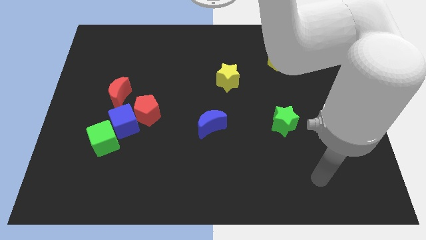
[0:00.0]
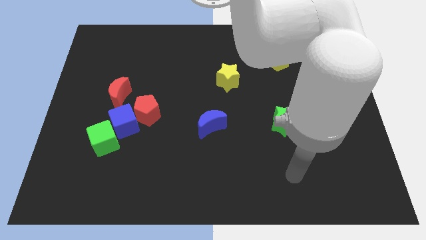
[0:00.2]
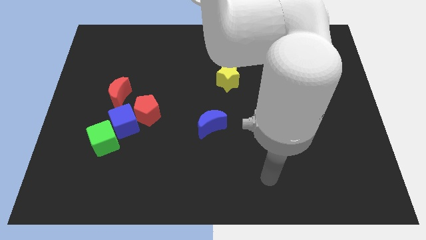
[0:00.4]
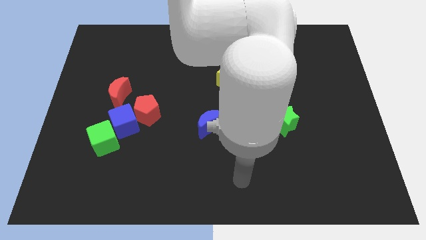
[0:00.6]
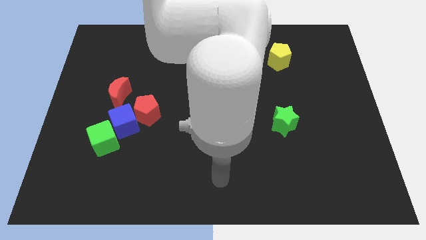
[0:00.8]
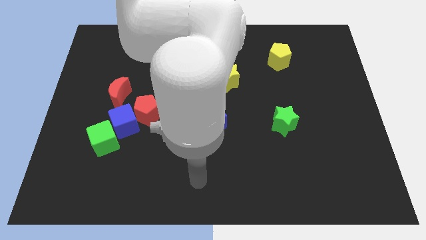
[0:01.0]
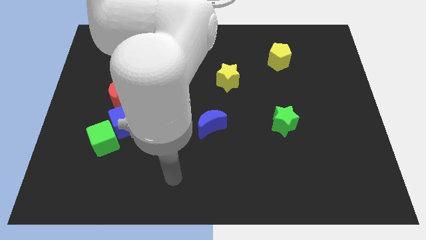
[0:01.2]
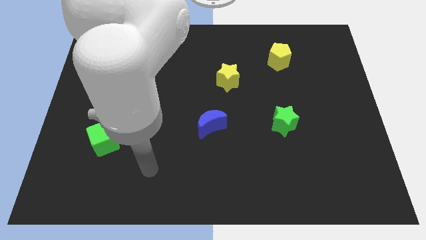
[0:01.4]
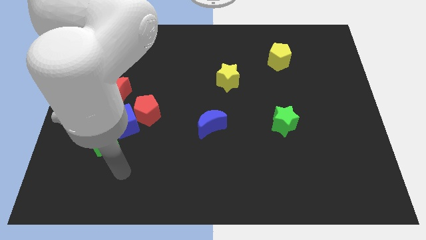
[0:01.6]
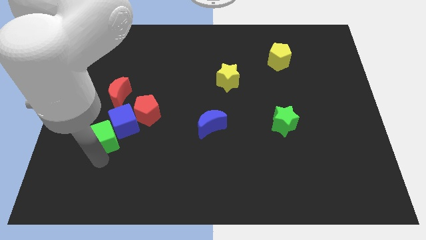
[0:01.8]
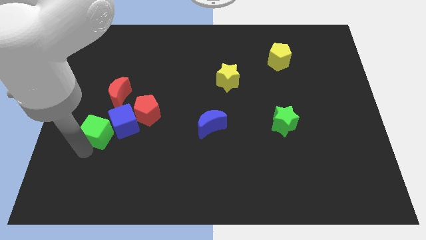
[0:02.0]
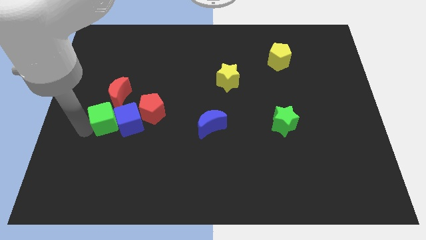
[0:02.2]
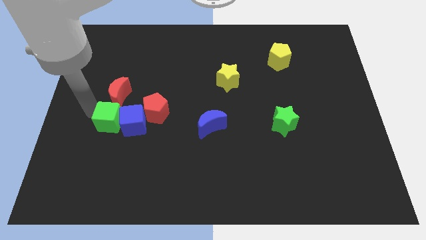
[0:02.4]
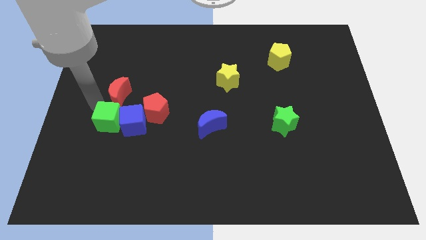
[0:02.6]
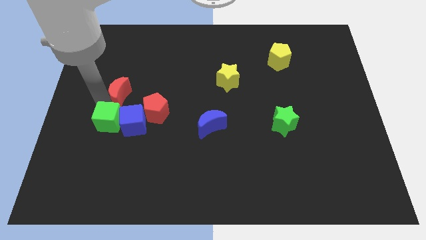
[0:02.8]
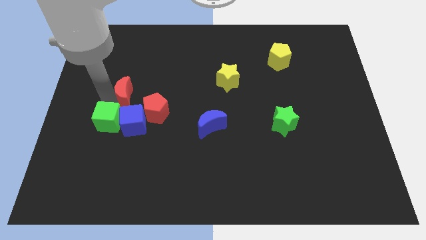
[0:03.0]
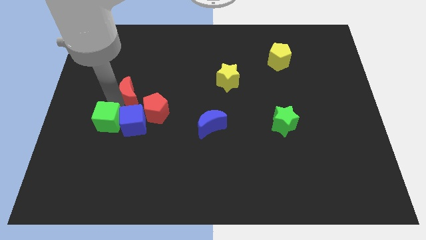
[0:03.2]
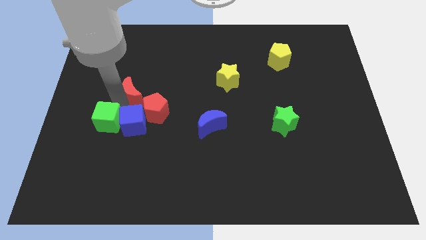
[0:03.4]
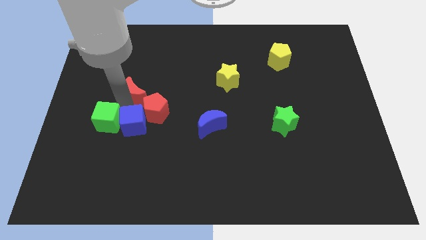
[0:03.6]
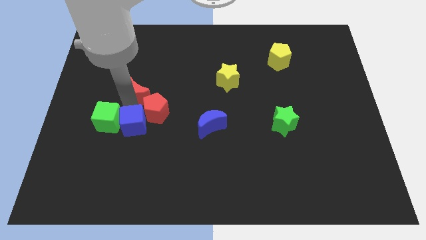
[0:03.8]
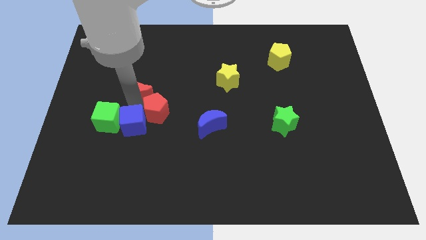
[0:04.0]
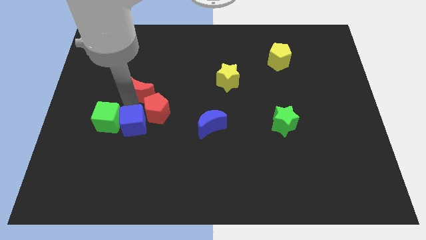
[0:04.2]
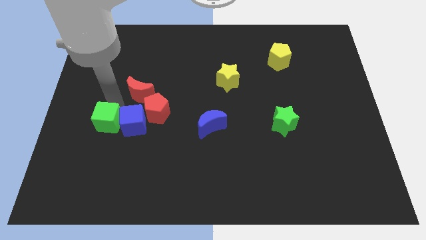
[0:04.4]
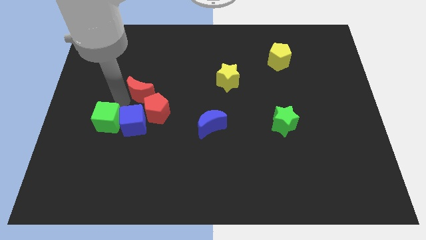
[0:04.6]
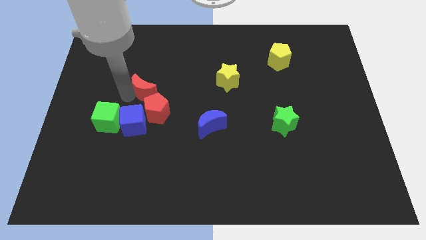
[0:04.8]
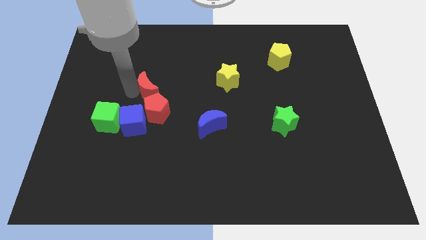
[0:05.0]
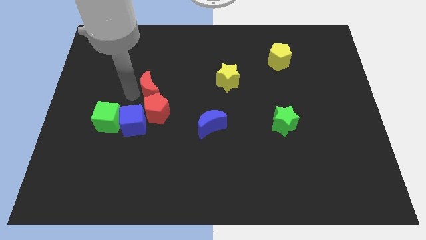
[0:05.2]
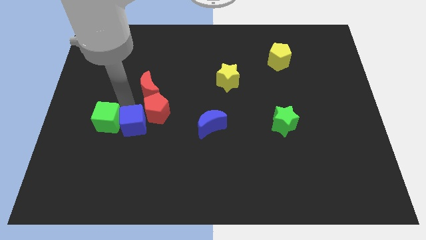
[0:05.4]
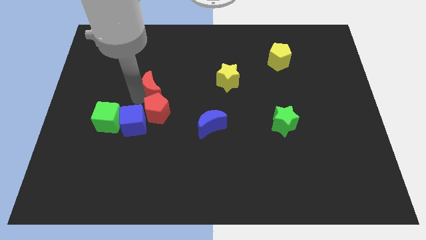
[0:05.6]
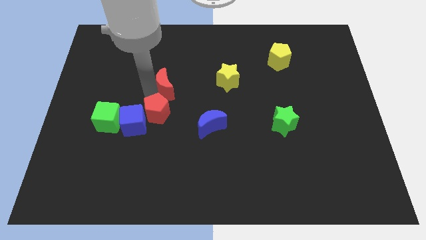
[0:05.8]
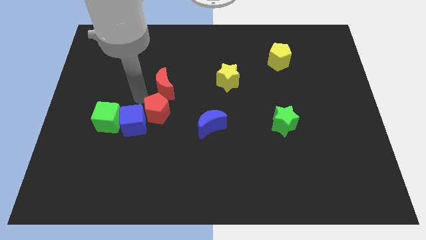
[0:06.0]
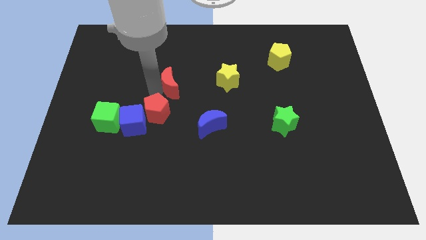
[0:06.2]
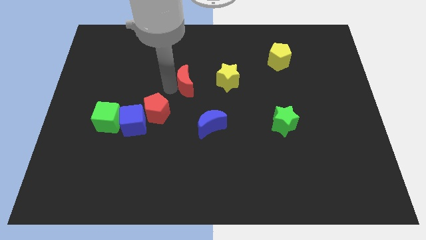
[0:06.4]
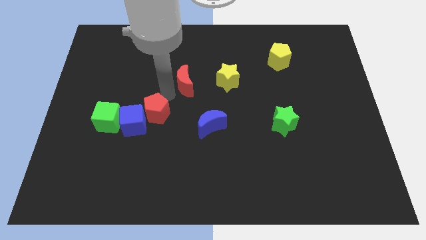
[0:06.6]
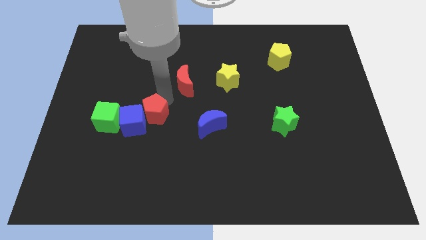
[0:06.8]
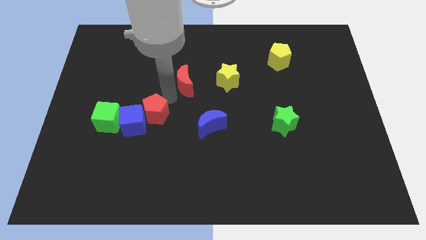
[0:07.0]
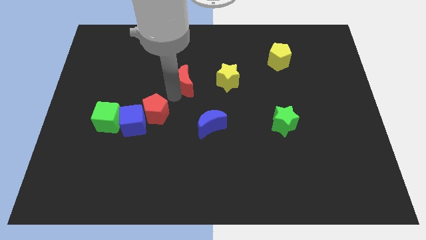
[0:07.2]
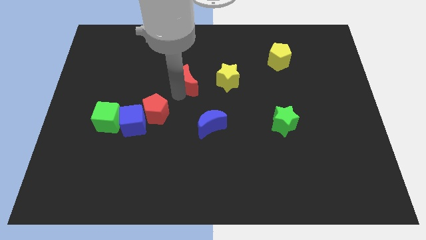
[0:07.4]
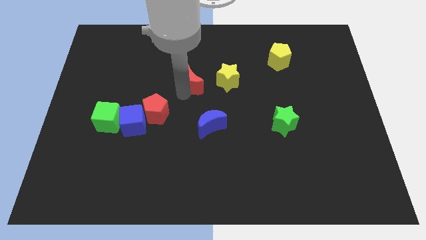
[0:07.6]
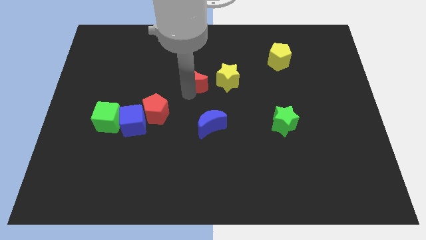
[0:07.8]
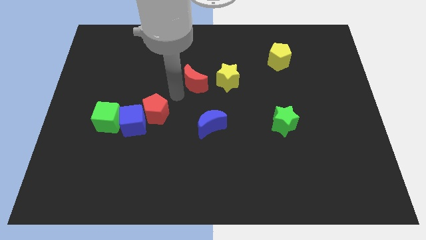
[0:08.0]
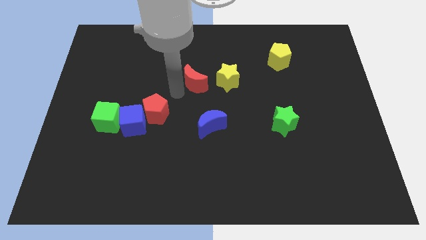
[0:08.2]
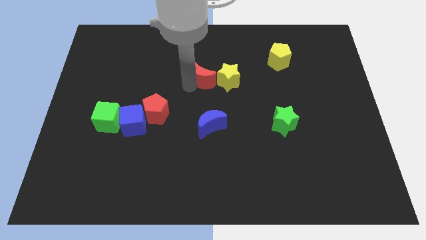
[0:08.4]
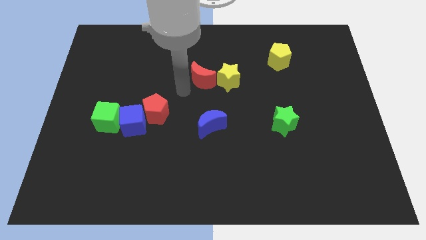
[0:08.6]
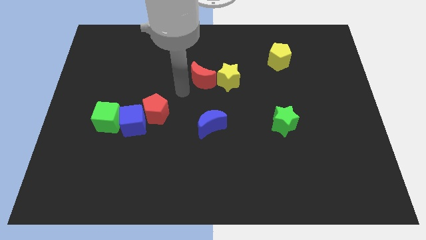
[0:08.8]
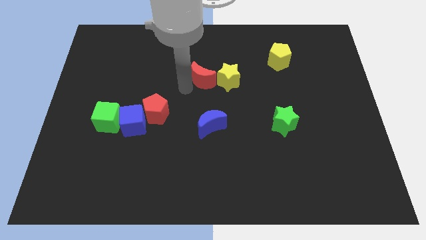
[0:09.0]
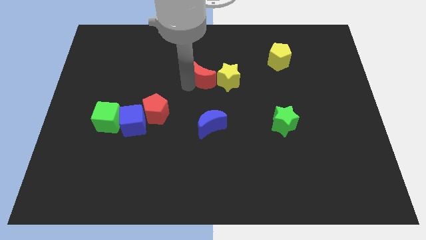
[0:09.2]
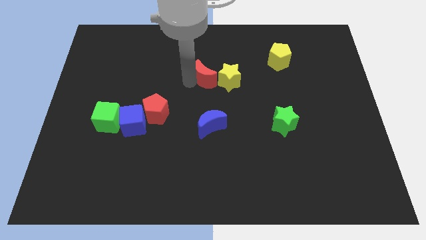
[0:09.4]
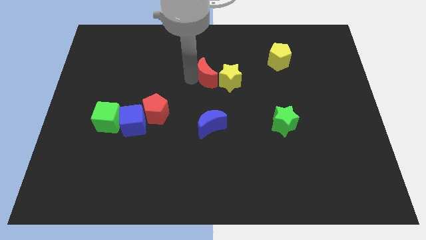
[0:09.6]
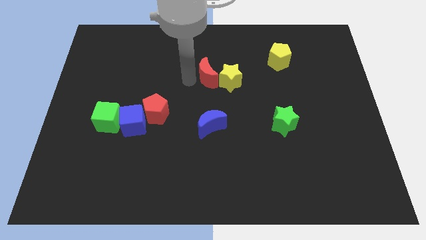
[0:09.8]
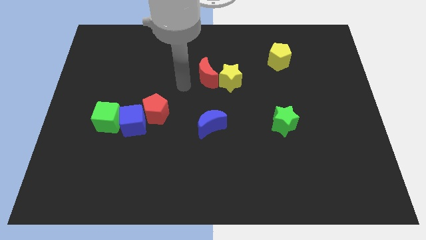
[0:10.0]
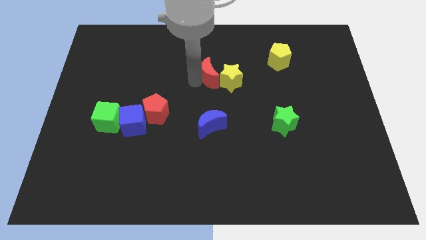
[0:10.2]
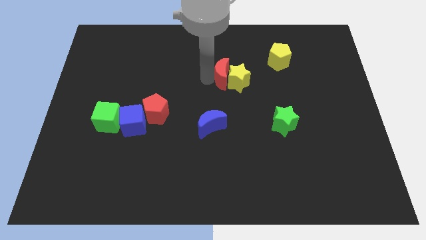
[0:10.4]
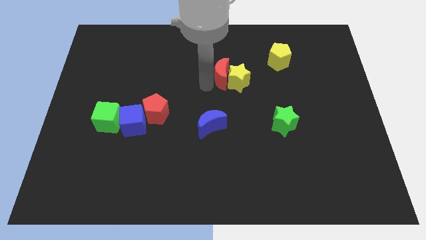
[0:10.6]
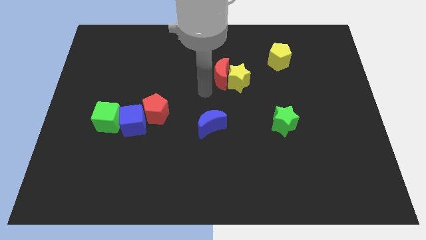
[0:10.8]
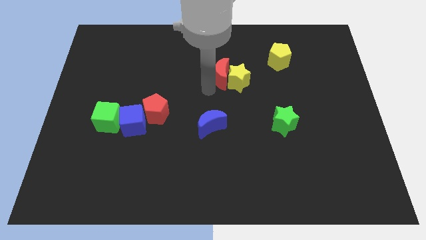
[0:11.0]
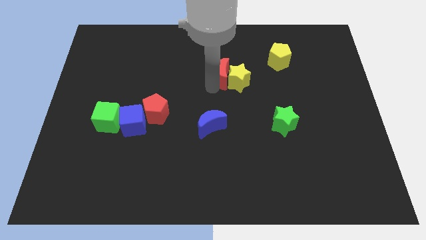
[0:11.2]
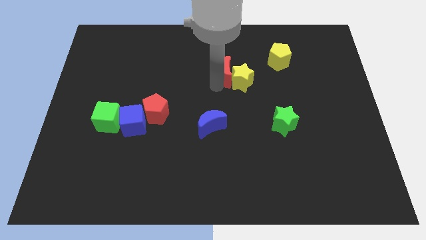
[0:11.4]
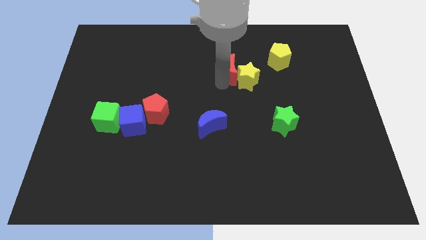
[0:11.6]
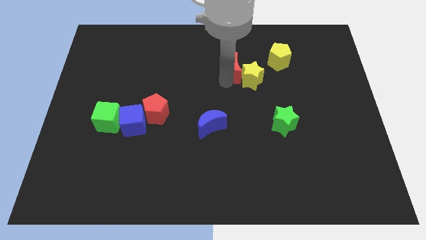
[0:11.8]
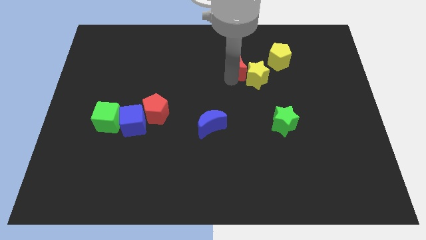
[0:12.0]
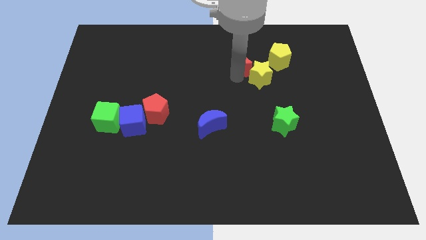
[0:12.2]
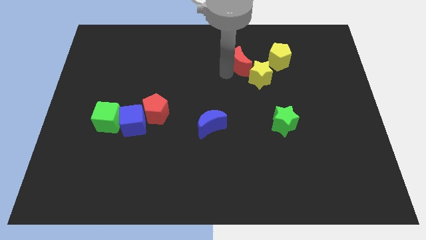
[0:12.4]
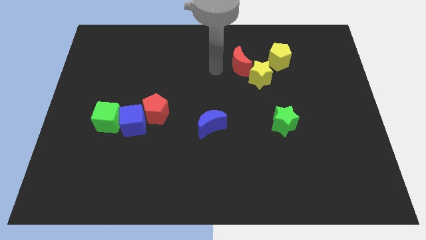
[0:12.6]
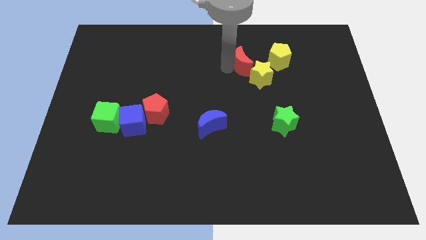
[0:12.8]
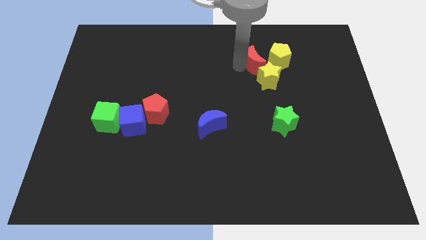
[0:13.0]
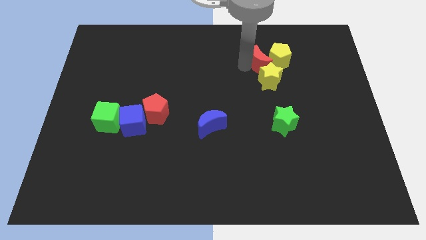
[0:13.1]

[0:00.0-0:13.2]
move the red moon next to the yellow pentagon
